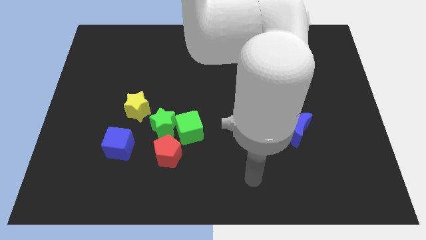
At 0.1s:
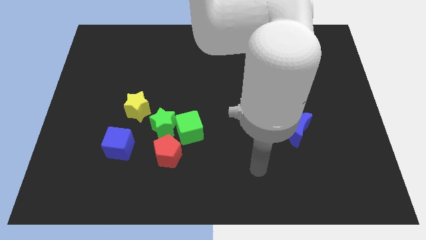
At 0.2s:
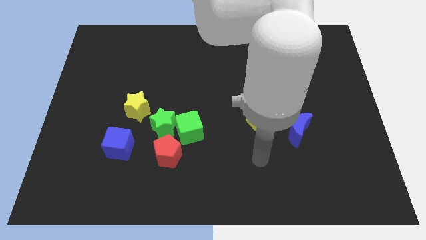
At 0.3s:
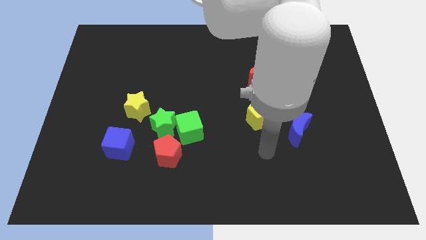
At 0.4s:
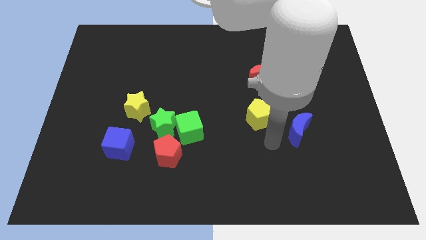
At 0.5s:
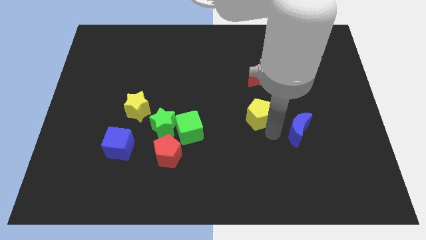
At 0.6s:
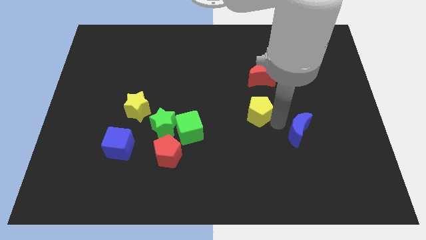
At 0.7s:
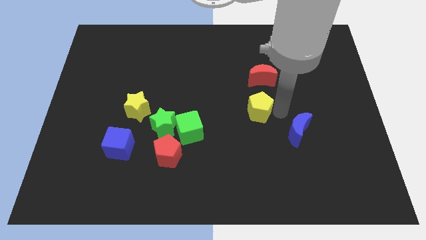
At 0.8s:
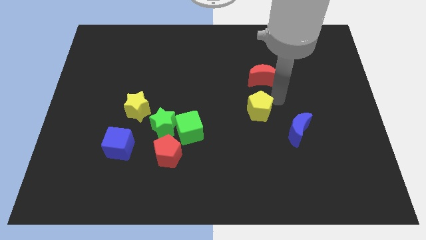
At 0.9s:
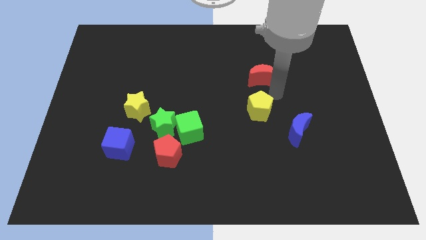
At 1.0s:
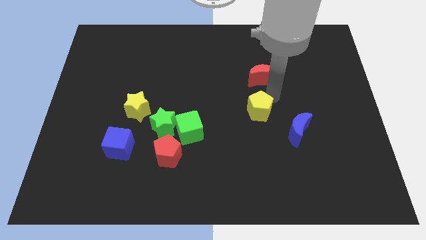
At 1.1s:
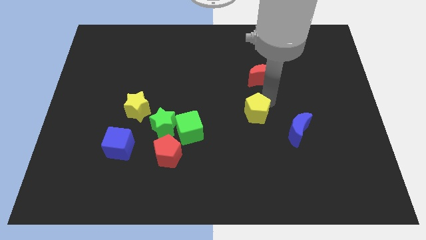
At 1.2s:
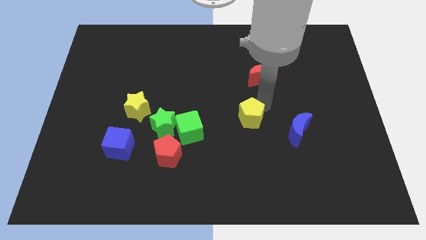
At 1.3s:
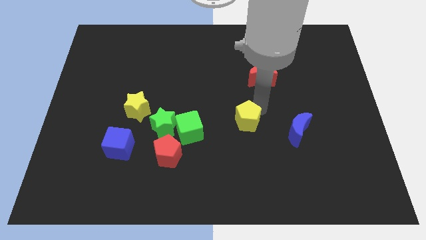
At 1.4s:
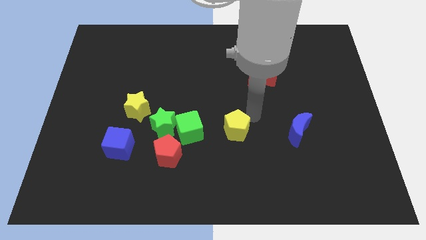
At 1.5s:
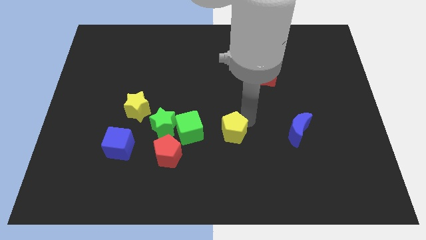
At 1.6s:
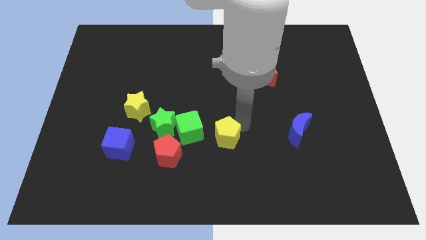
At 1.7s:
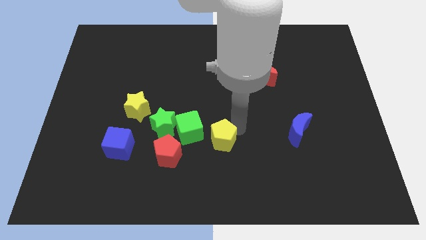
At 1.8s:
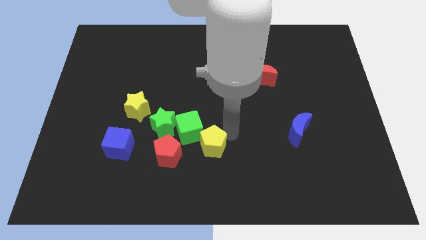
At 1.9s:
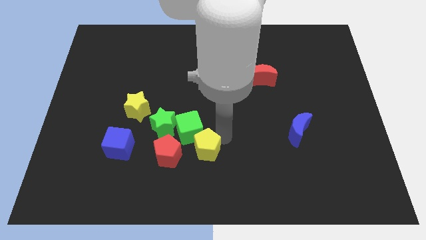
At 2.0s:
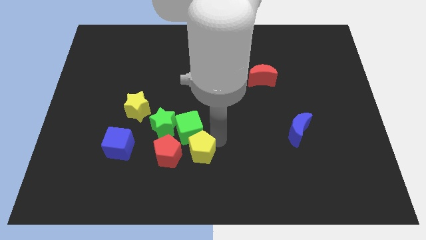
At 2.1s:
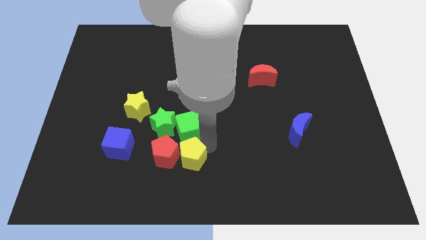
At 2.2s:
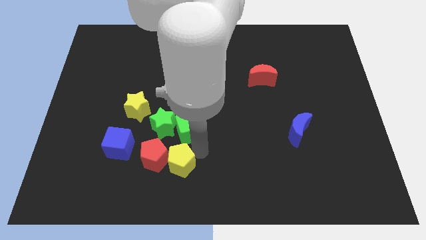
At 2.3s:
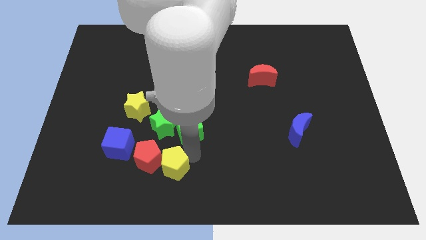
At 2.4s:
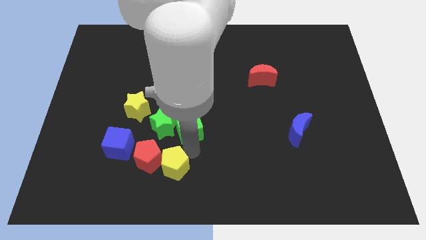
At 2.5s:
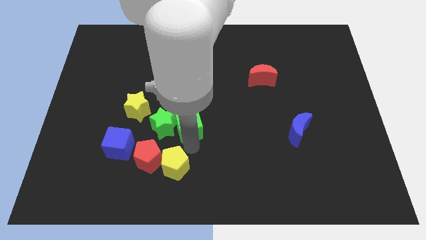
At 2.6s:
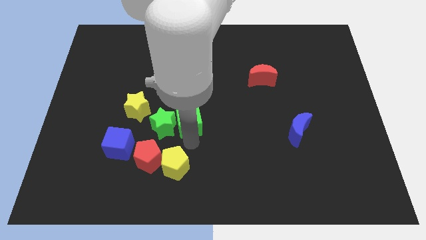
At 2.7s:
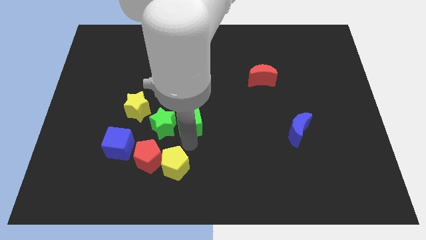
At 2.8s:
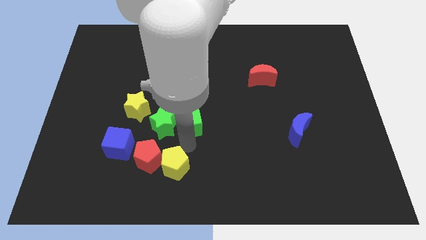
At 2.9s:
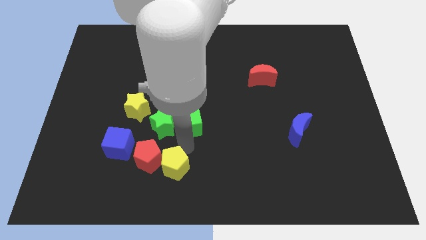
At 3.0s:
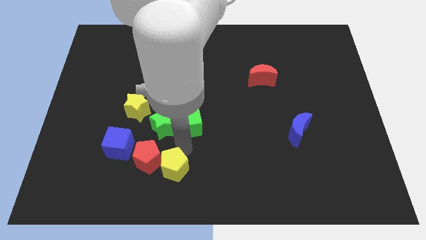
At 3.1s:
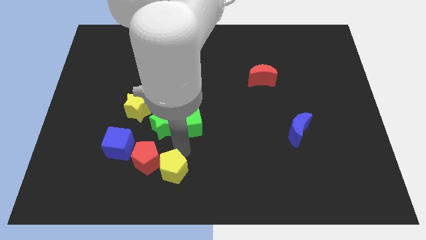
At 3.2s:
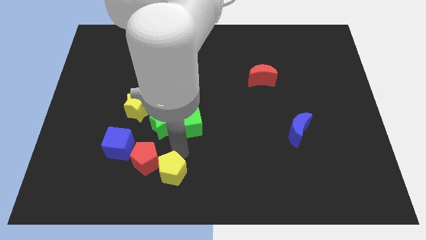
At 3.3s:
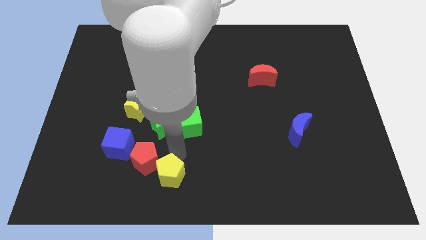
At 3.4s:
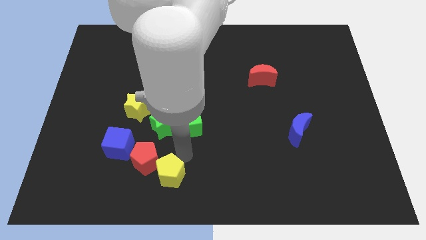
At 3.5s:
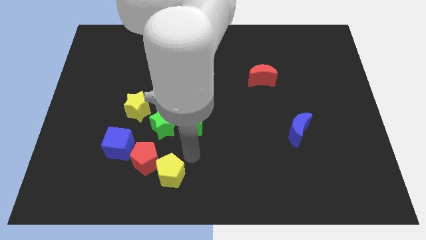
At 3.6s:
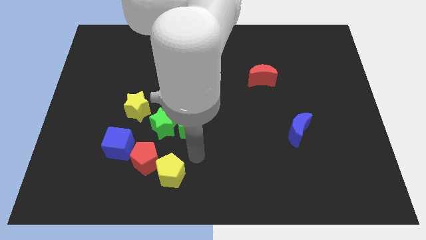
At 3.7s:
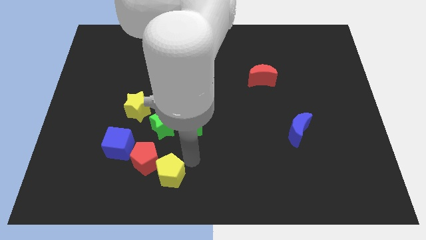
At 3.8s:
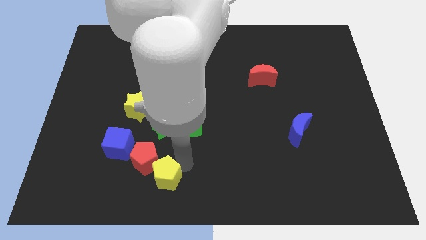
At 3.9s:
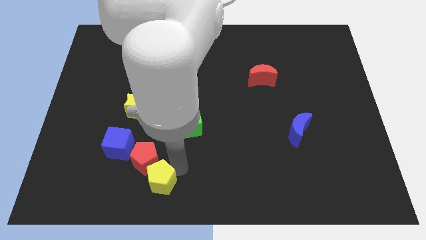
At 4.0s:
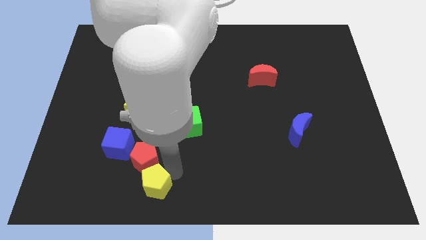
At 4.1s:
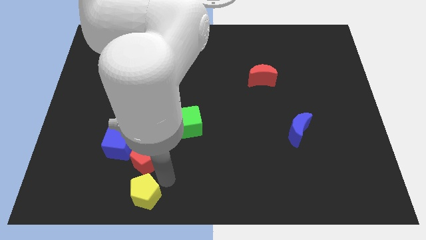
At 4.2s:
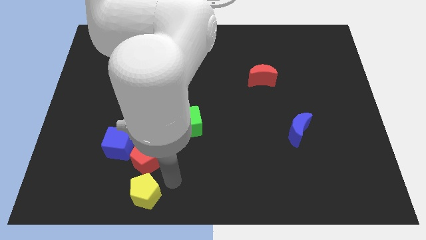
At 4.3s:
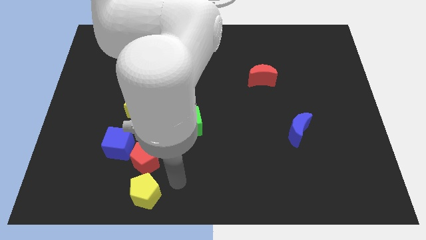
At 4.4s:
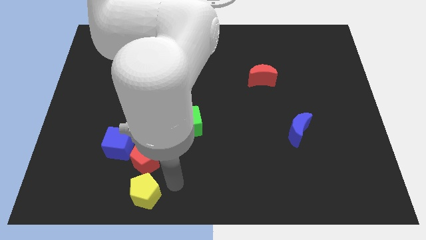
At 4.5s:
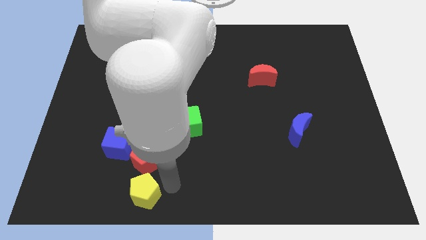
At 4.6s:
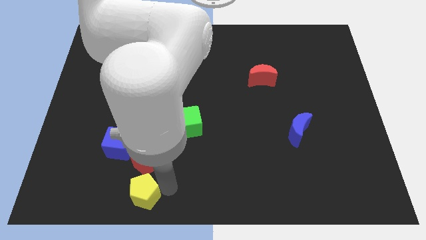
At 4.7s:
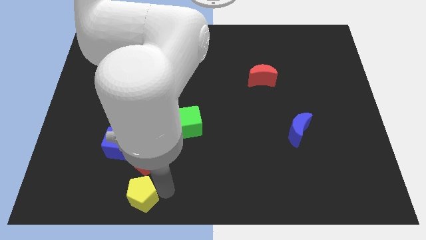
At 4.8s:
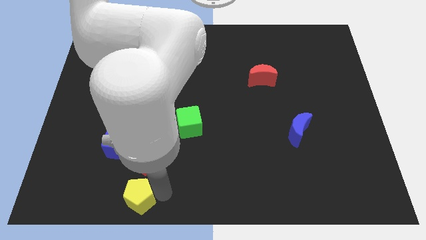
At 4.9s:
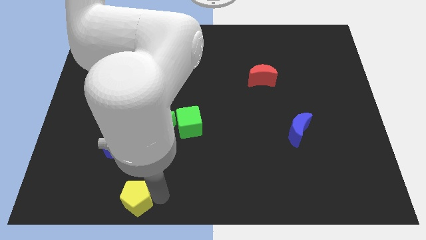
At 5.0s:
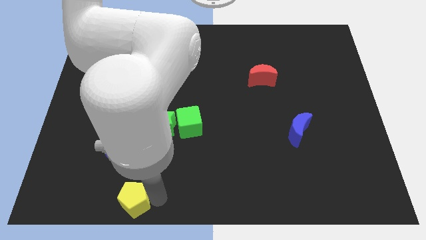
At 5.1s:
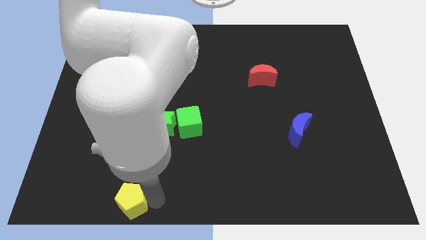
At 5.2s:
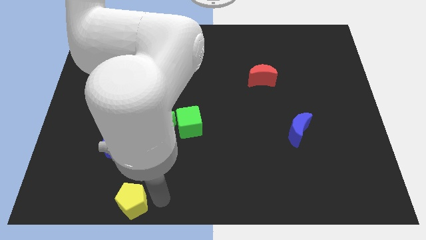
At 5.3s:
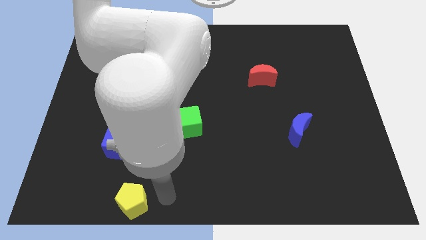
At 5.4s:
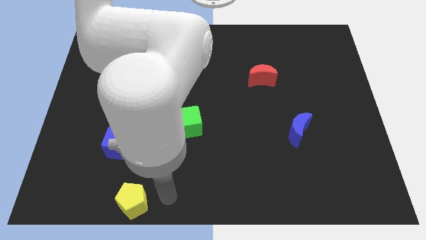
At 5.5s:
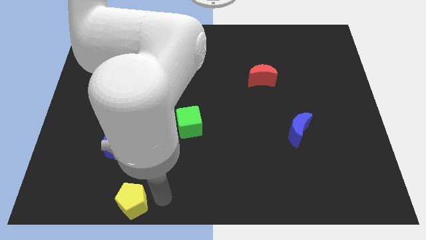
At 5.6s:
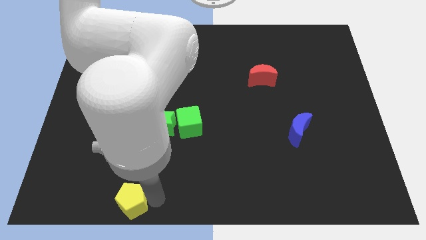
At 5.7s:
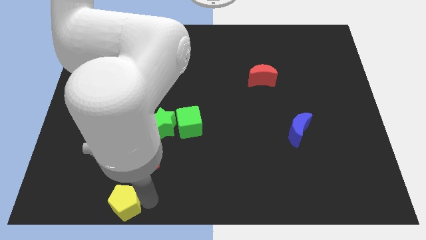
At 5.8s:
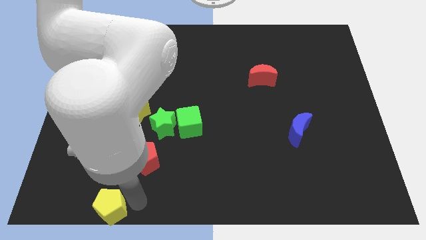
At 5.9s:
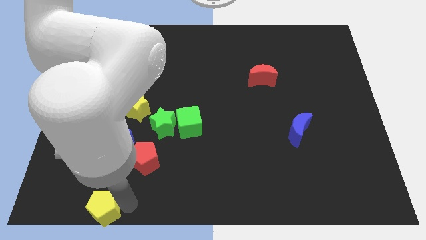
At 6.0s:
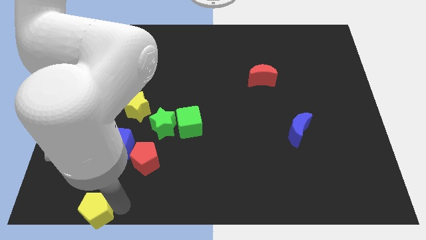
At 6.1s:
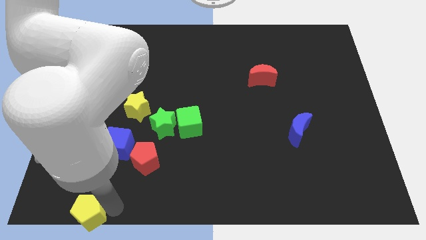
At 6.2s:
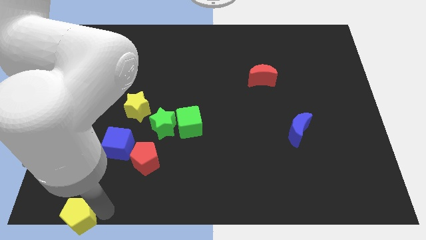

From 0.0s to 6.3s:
slide the yellow pentagon to the bottom left of the board
